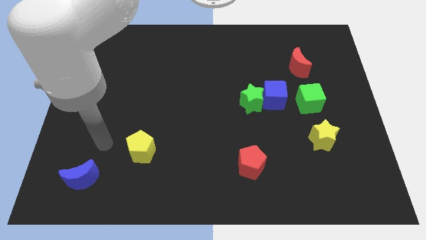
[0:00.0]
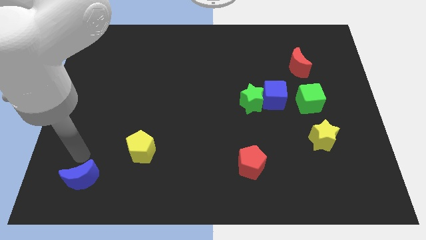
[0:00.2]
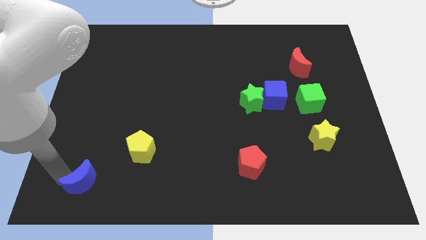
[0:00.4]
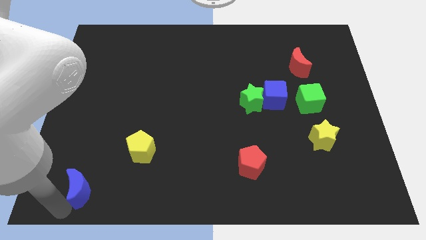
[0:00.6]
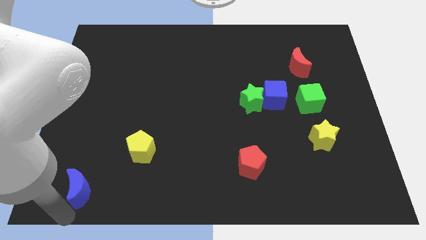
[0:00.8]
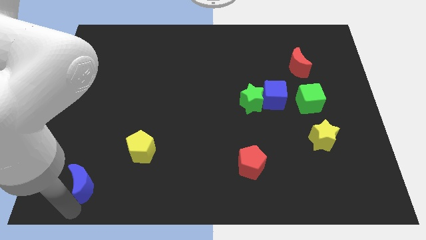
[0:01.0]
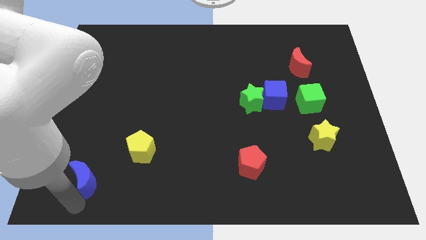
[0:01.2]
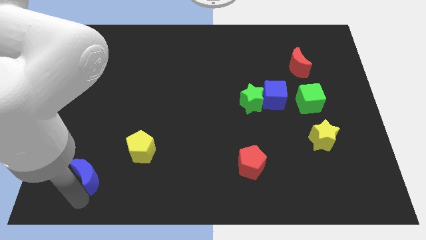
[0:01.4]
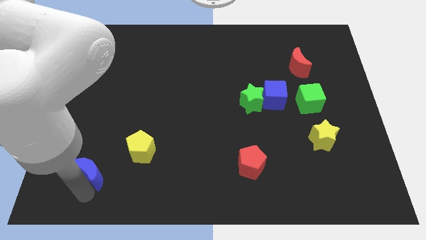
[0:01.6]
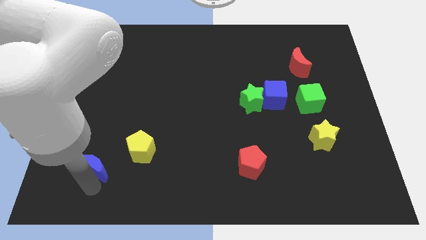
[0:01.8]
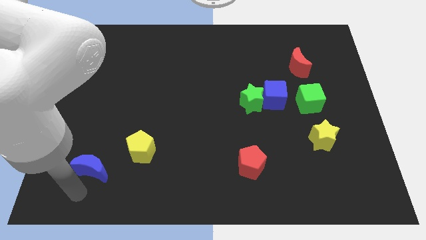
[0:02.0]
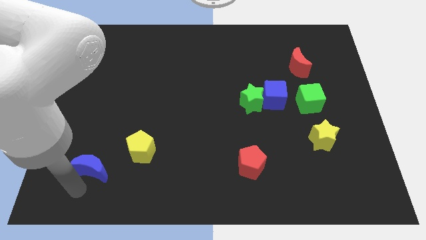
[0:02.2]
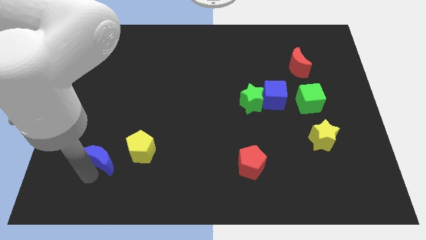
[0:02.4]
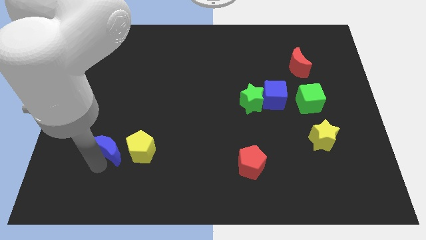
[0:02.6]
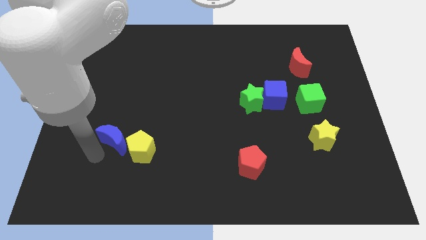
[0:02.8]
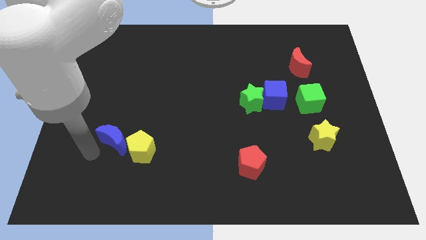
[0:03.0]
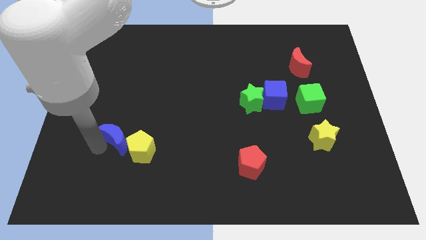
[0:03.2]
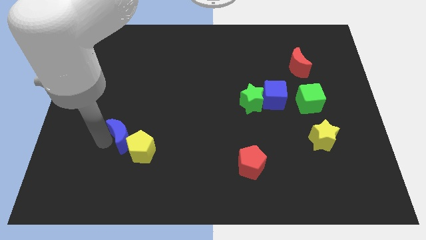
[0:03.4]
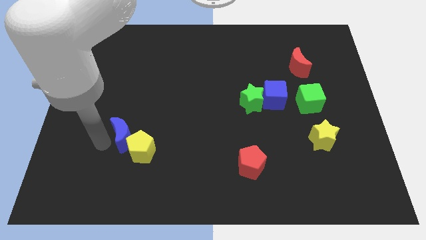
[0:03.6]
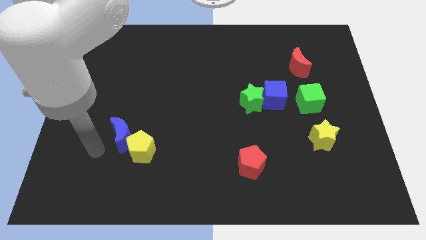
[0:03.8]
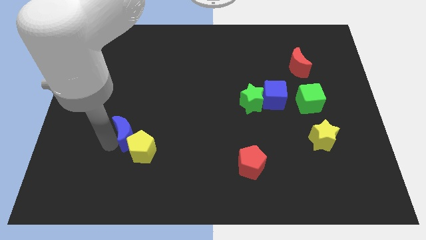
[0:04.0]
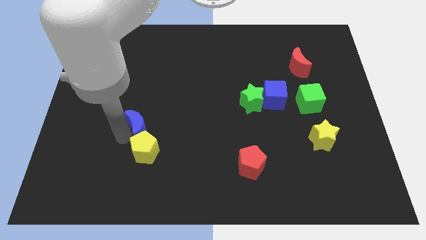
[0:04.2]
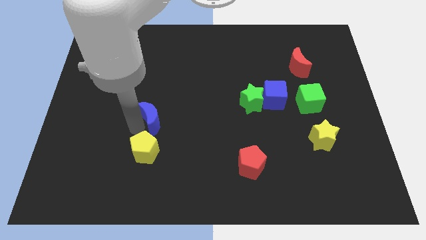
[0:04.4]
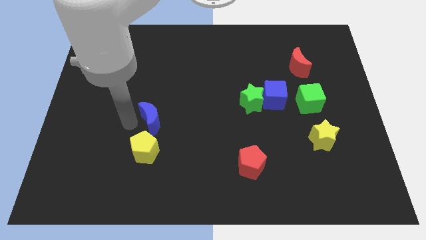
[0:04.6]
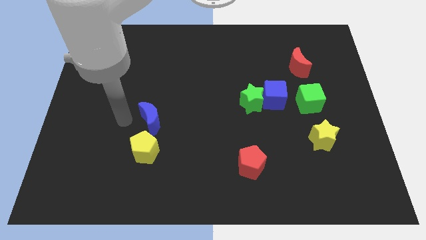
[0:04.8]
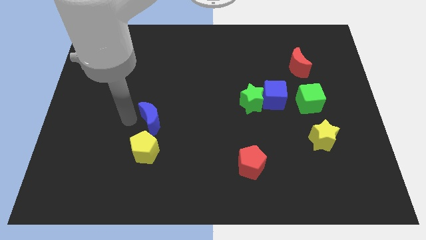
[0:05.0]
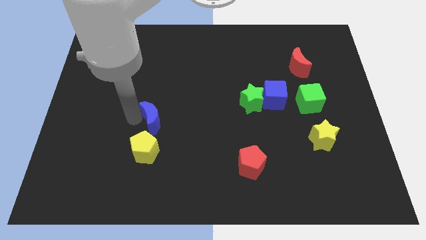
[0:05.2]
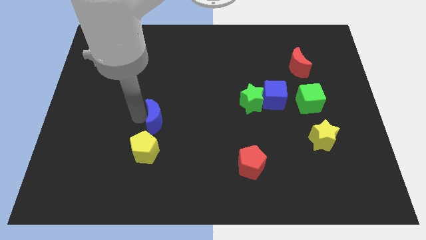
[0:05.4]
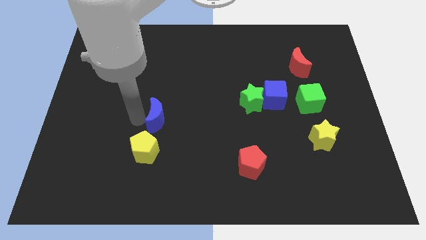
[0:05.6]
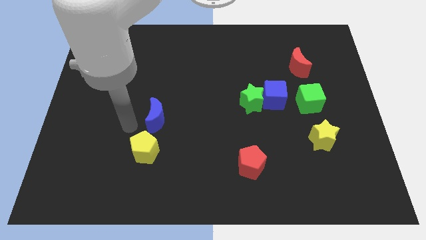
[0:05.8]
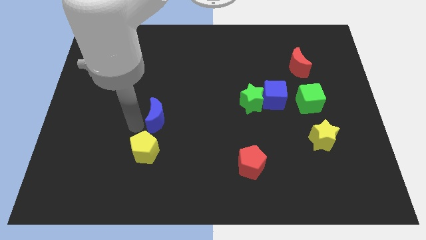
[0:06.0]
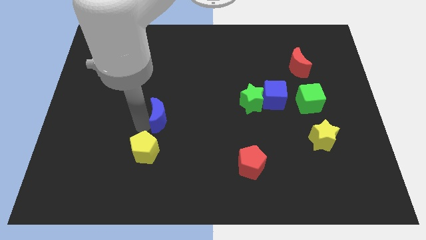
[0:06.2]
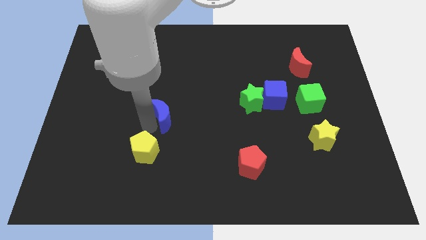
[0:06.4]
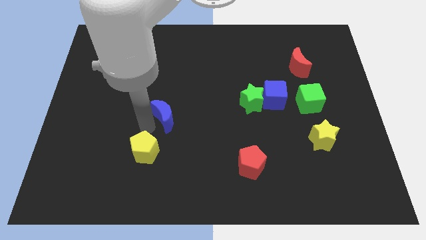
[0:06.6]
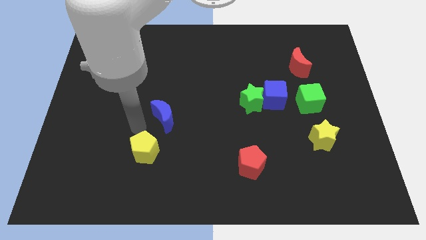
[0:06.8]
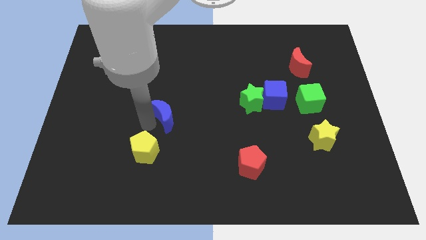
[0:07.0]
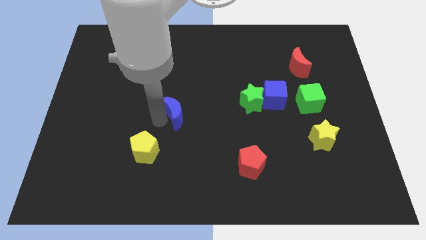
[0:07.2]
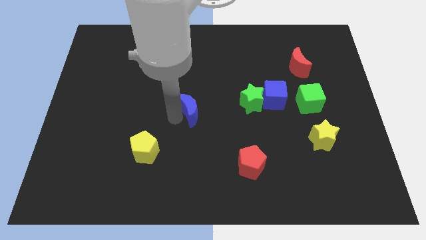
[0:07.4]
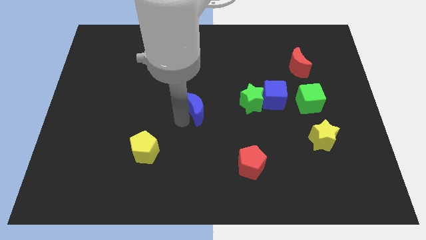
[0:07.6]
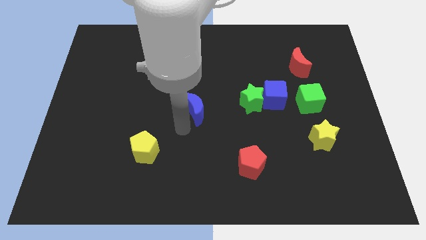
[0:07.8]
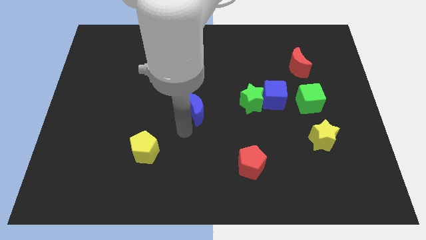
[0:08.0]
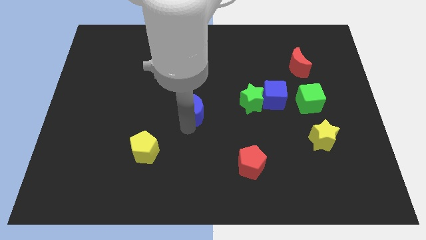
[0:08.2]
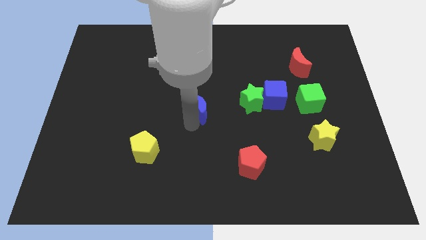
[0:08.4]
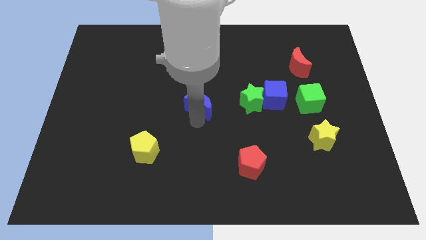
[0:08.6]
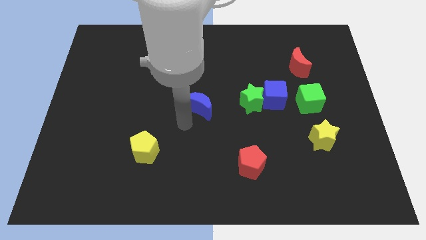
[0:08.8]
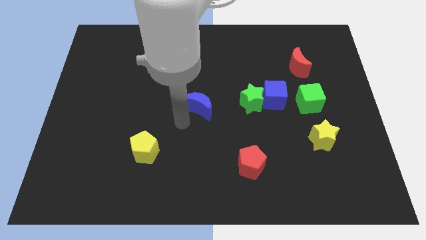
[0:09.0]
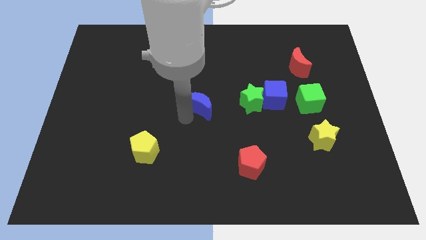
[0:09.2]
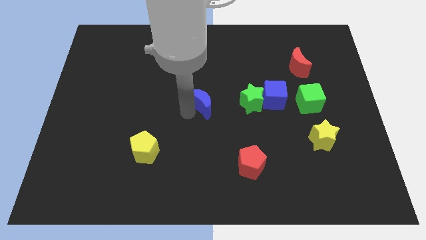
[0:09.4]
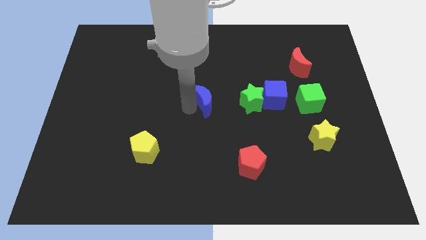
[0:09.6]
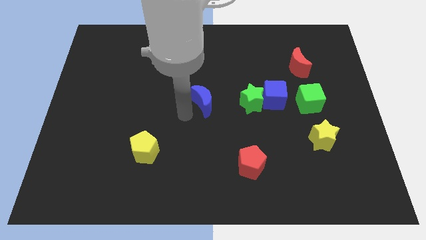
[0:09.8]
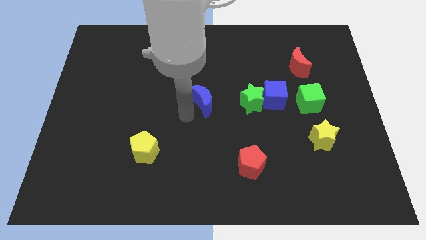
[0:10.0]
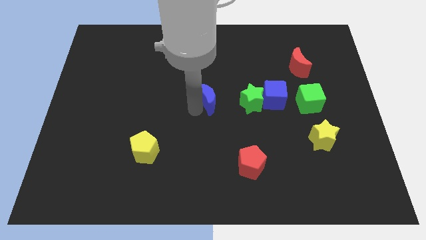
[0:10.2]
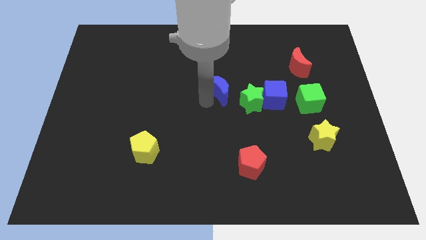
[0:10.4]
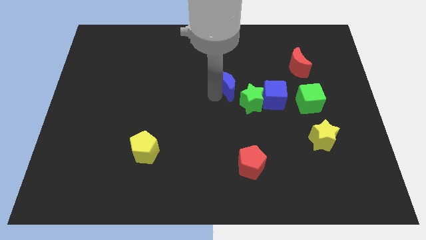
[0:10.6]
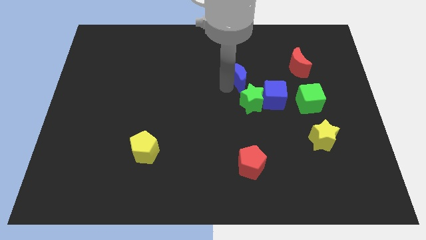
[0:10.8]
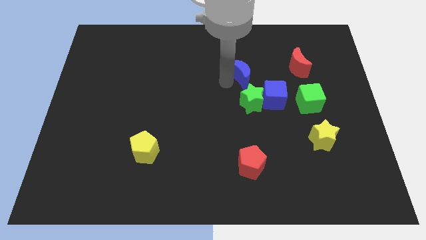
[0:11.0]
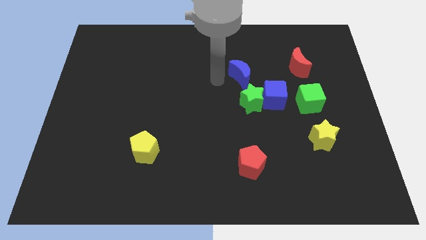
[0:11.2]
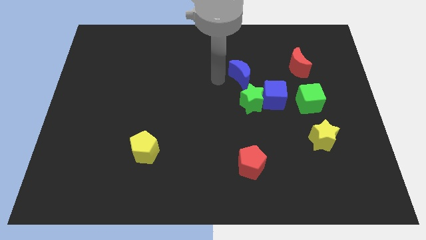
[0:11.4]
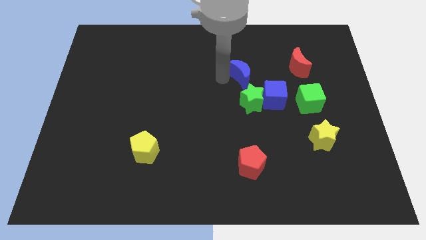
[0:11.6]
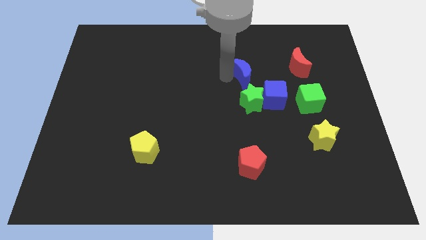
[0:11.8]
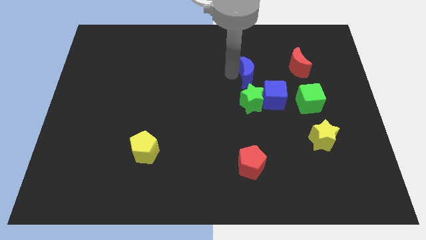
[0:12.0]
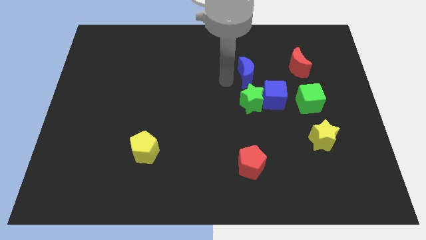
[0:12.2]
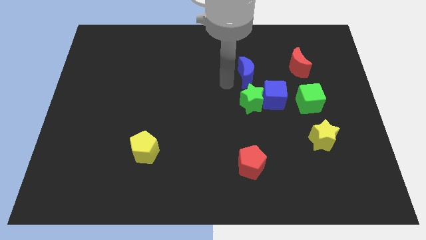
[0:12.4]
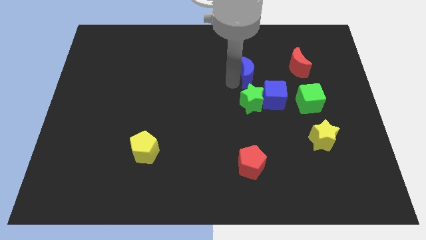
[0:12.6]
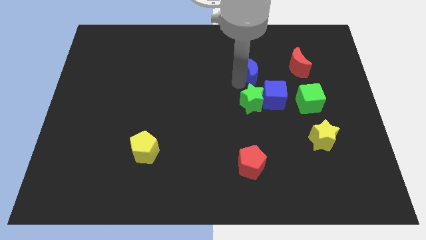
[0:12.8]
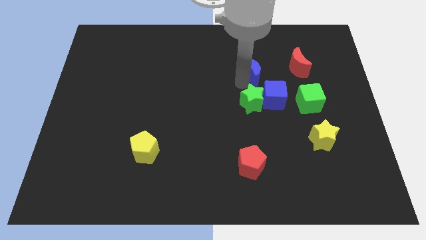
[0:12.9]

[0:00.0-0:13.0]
push the blue moon to the top of the blue cube

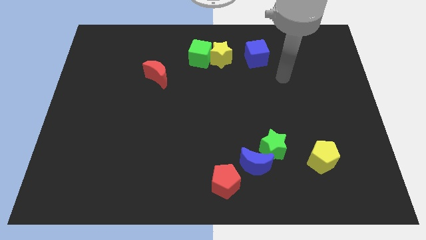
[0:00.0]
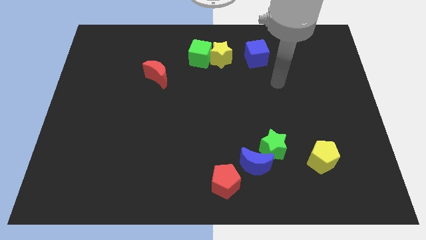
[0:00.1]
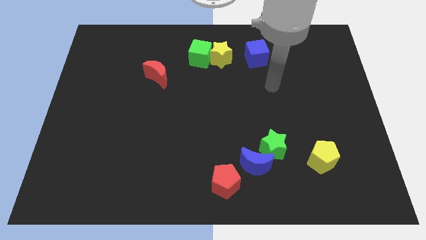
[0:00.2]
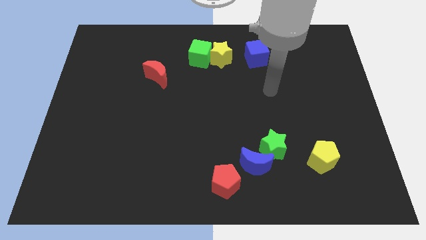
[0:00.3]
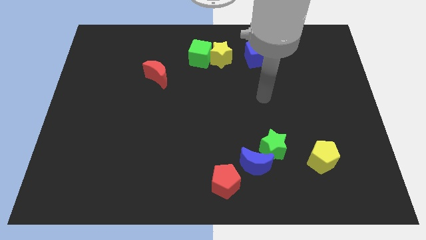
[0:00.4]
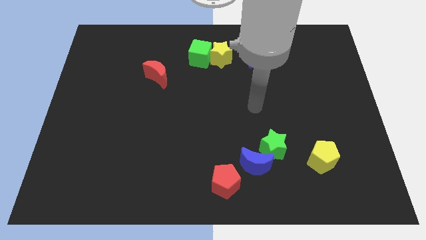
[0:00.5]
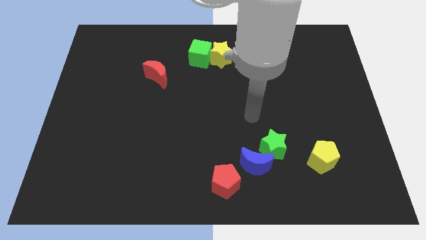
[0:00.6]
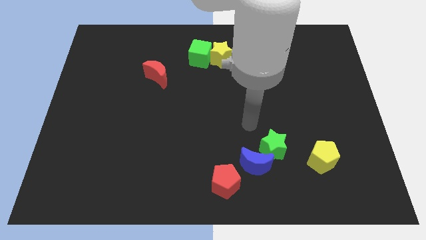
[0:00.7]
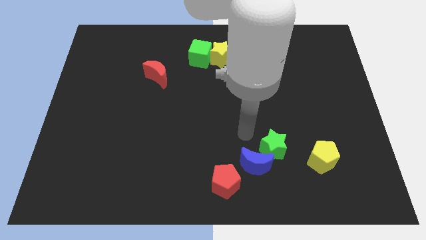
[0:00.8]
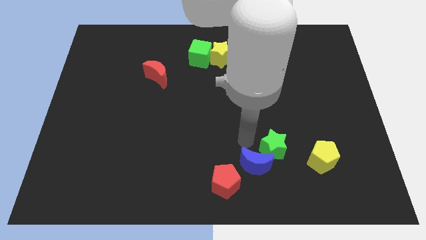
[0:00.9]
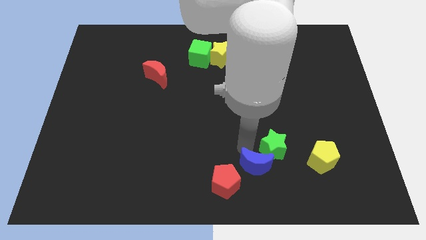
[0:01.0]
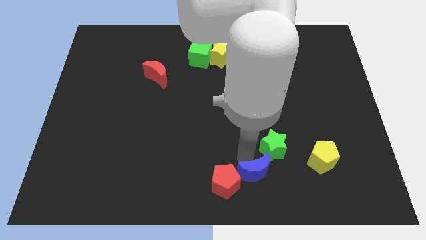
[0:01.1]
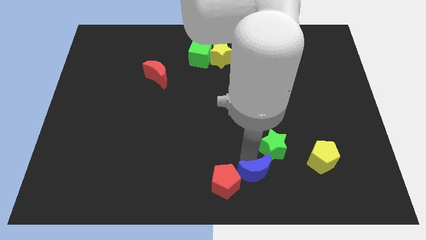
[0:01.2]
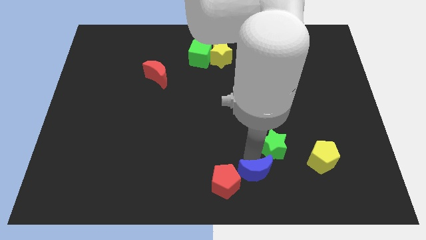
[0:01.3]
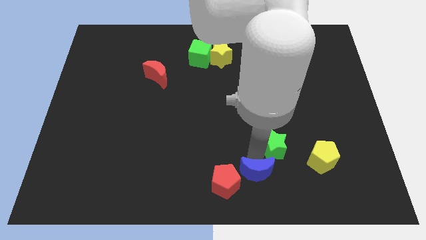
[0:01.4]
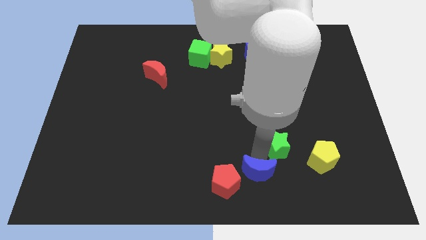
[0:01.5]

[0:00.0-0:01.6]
put the green star to the top left side of the yellow pentagon
